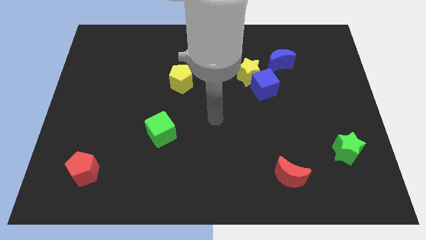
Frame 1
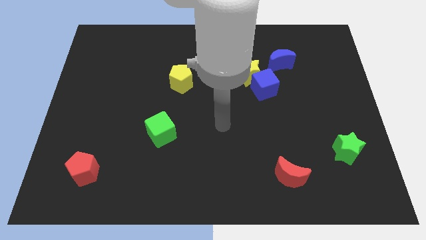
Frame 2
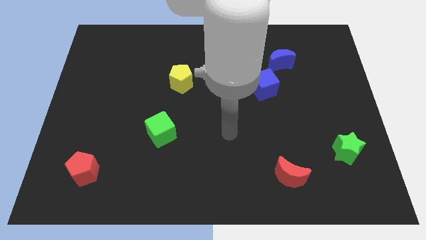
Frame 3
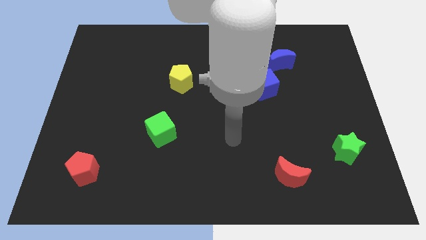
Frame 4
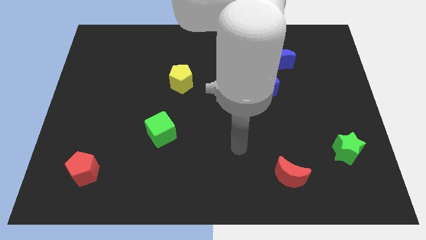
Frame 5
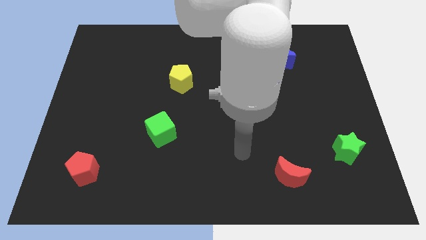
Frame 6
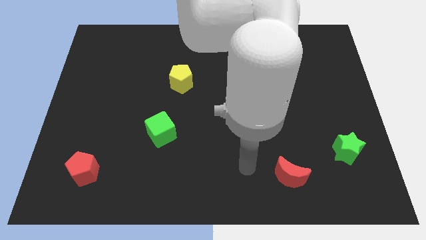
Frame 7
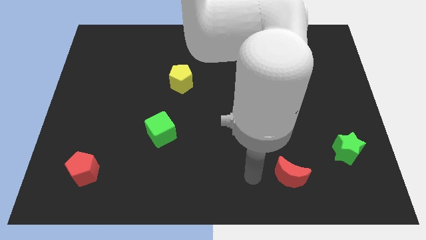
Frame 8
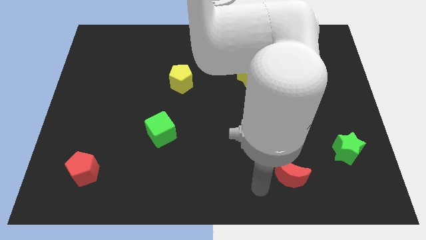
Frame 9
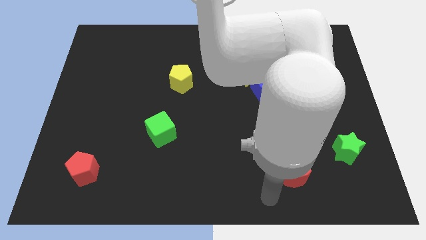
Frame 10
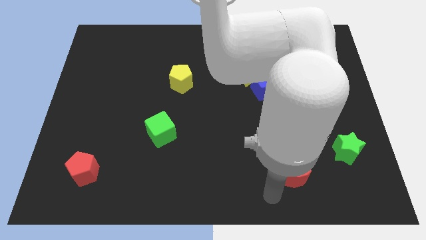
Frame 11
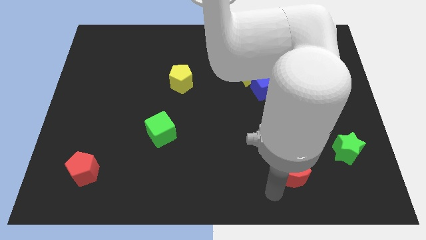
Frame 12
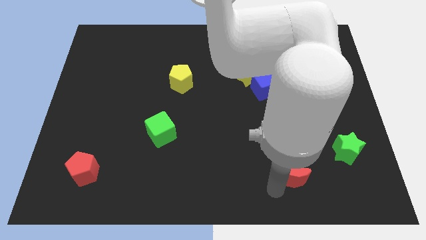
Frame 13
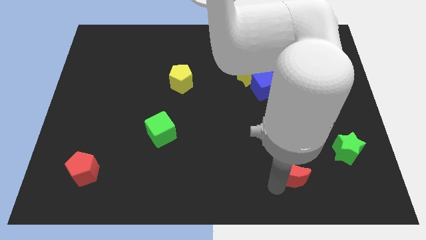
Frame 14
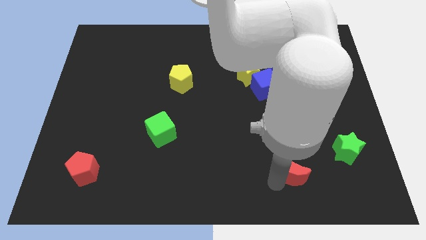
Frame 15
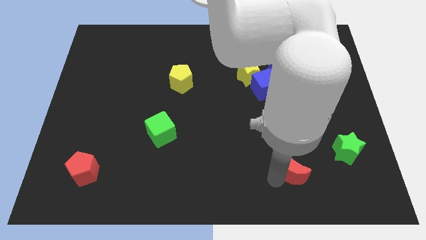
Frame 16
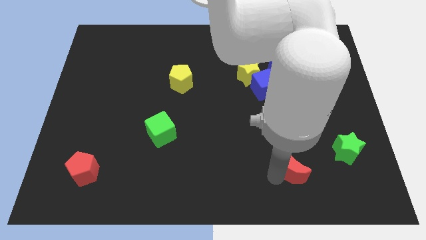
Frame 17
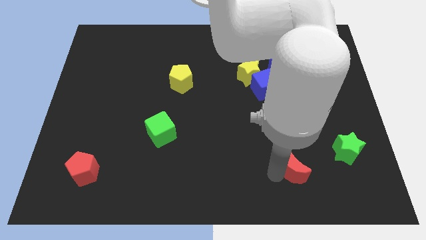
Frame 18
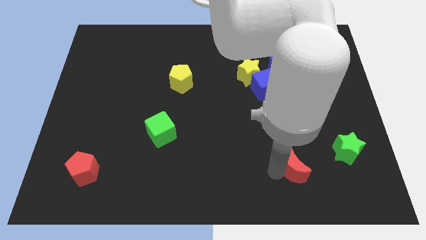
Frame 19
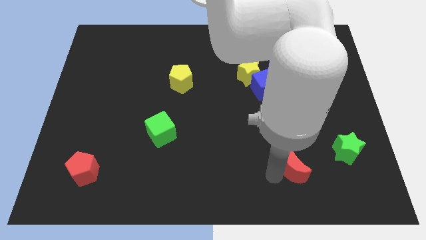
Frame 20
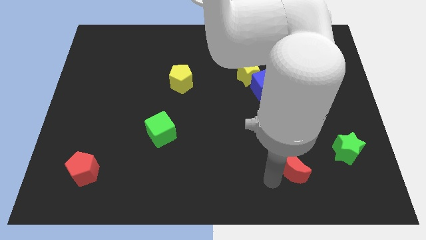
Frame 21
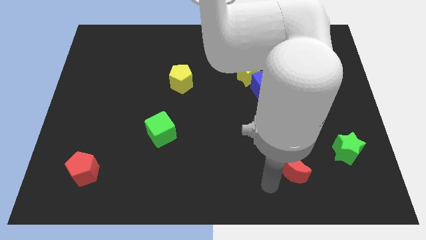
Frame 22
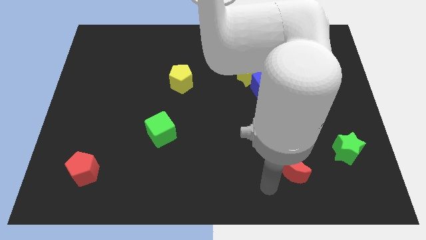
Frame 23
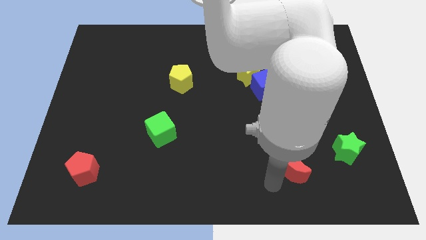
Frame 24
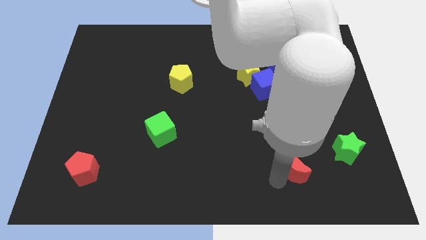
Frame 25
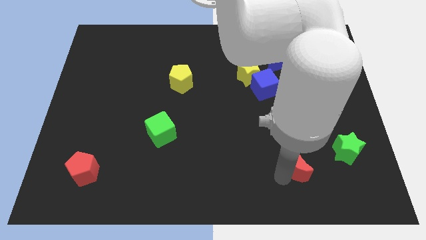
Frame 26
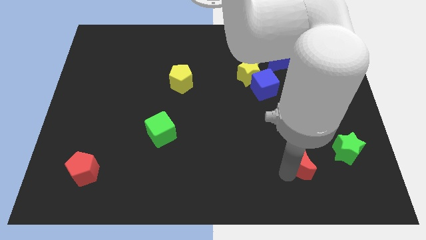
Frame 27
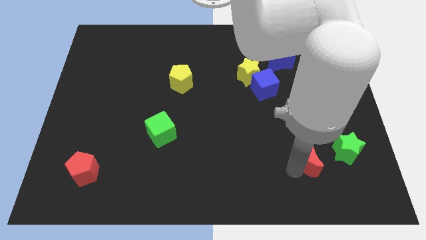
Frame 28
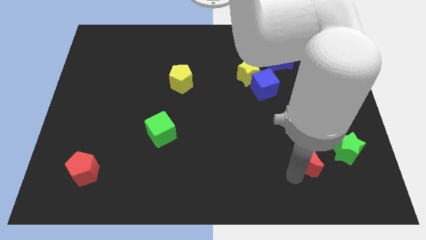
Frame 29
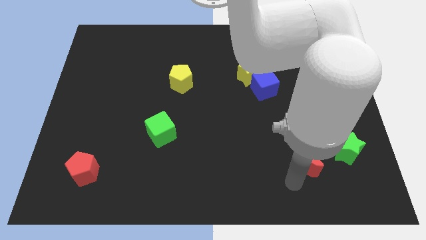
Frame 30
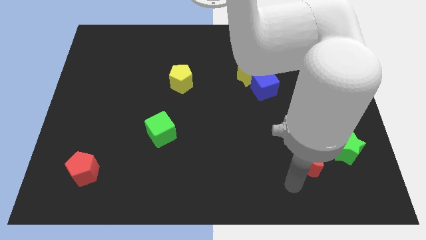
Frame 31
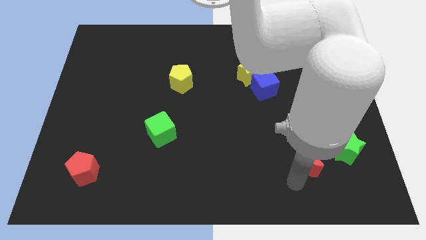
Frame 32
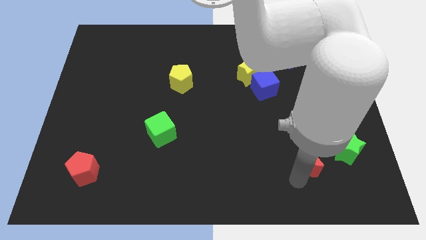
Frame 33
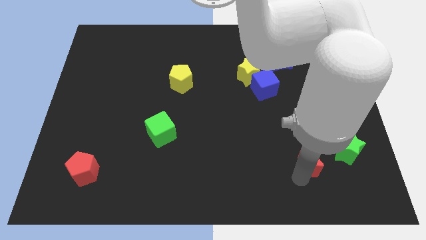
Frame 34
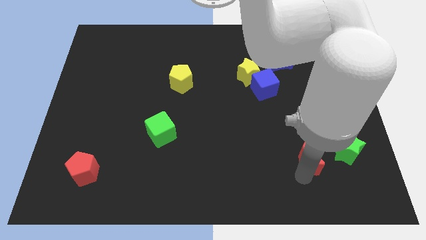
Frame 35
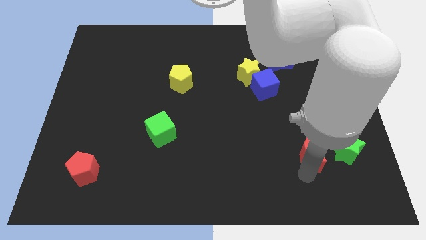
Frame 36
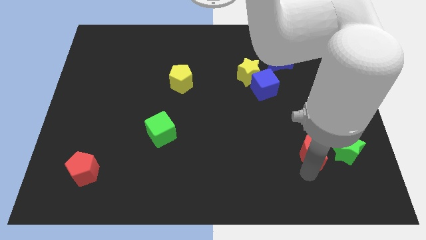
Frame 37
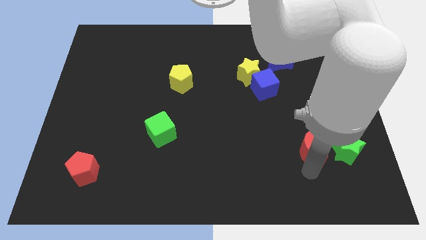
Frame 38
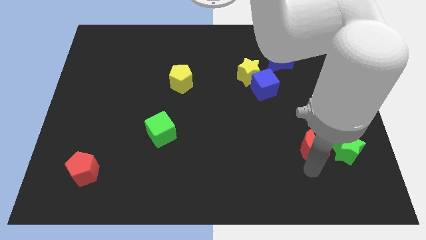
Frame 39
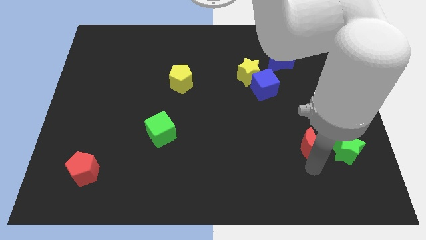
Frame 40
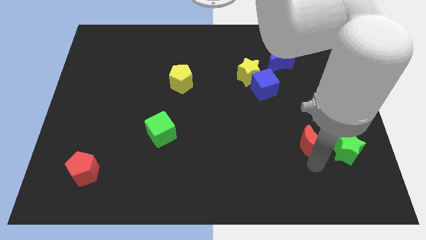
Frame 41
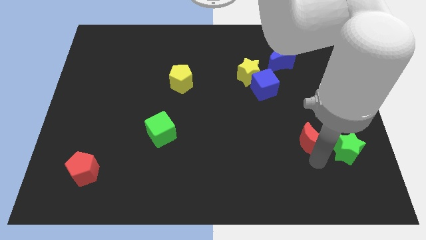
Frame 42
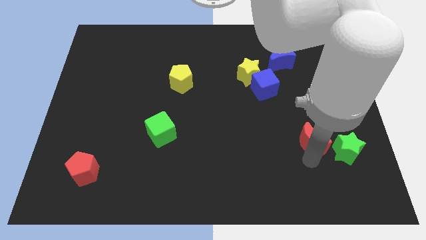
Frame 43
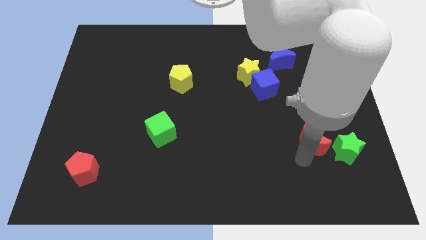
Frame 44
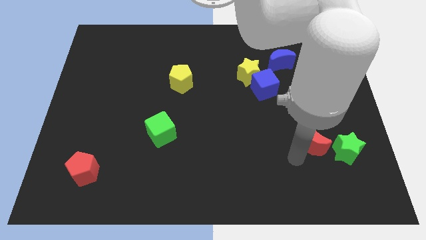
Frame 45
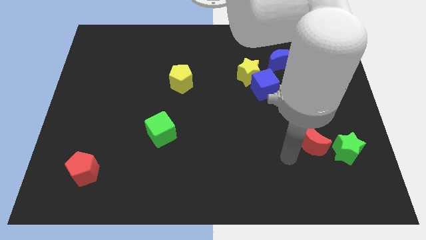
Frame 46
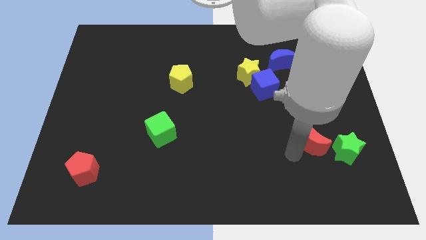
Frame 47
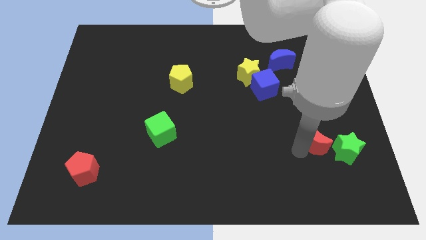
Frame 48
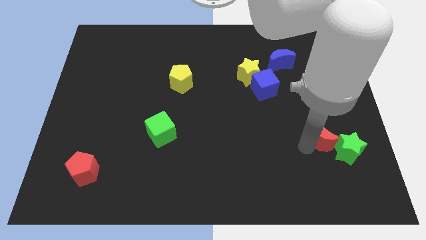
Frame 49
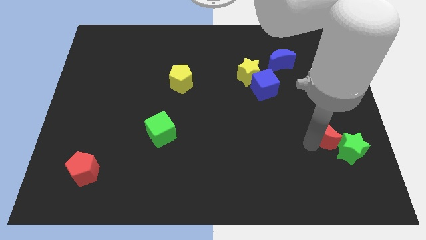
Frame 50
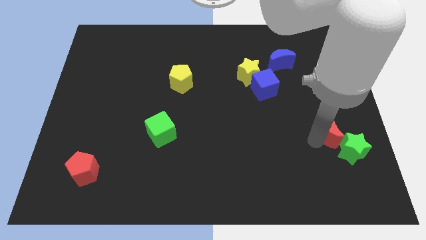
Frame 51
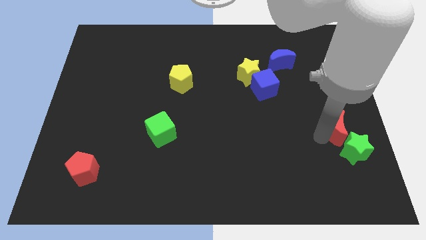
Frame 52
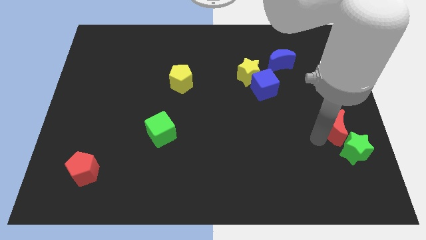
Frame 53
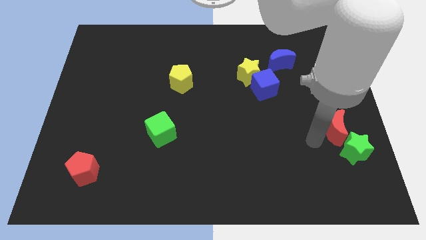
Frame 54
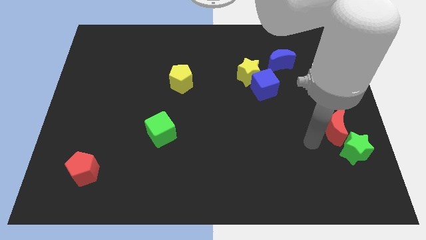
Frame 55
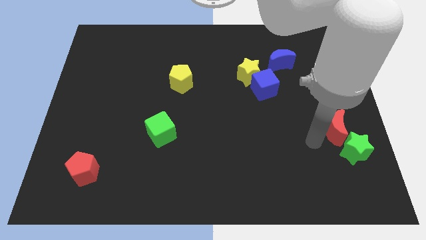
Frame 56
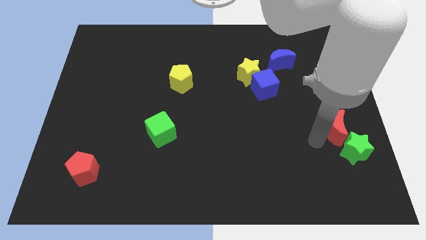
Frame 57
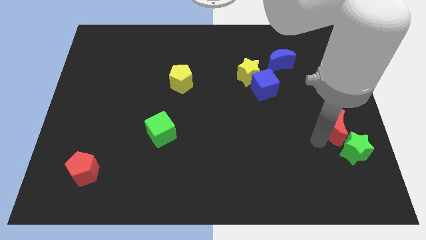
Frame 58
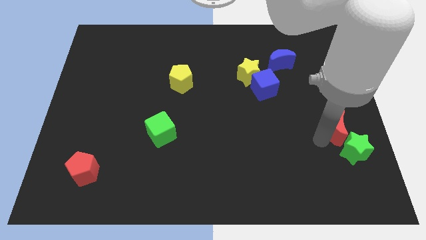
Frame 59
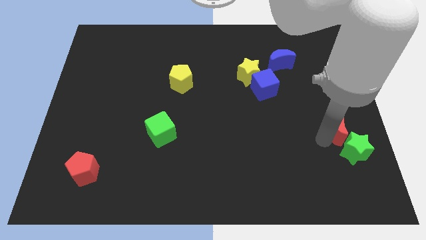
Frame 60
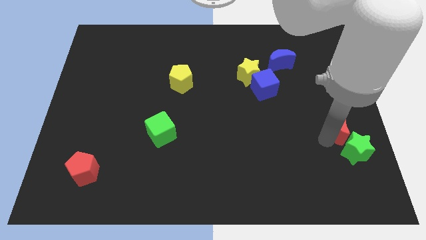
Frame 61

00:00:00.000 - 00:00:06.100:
push the red moon to the right side

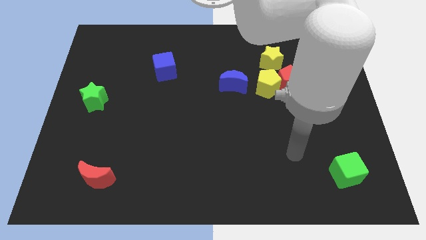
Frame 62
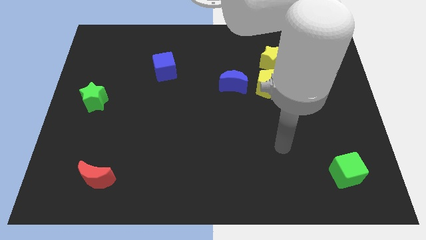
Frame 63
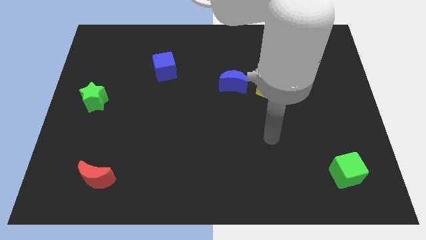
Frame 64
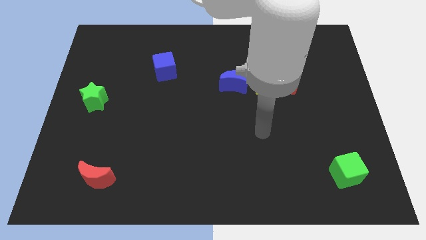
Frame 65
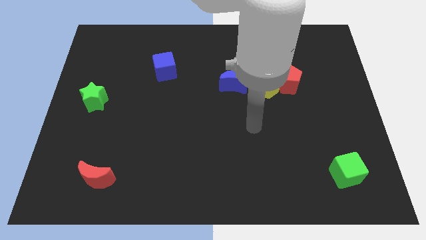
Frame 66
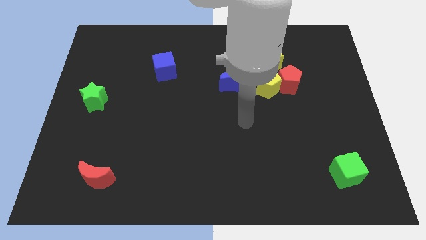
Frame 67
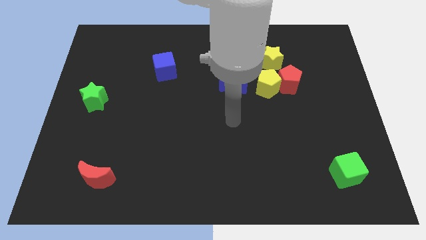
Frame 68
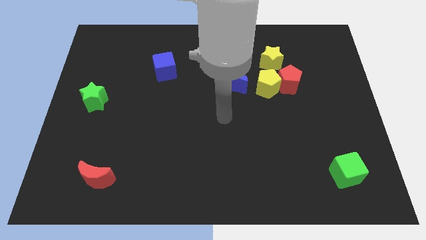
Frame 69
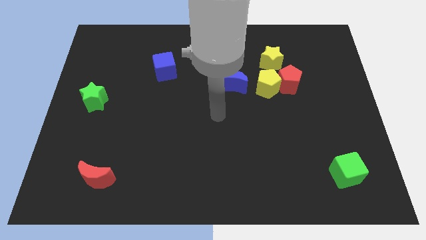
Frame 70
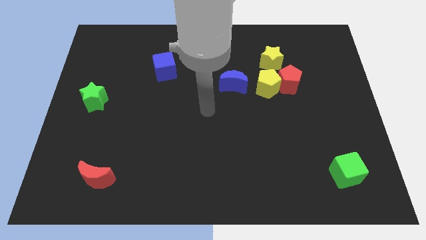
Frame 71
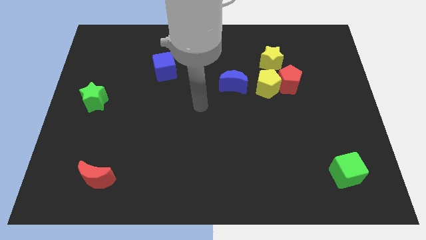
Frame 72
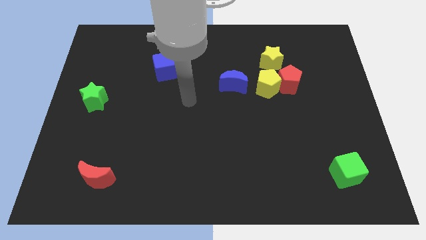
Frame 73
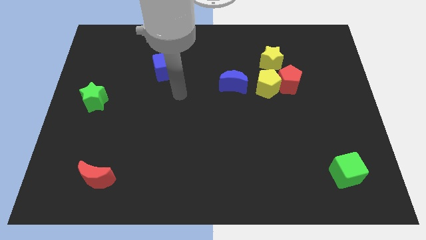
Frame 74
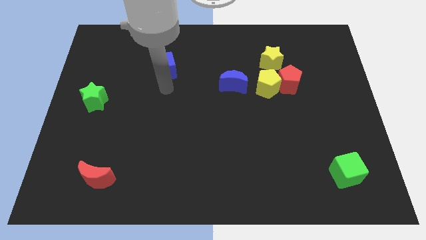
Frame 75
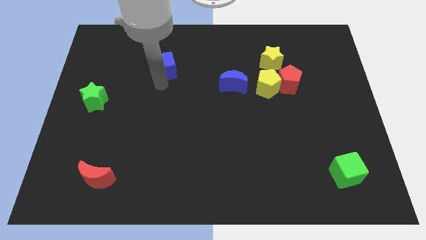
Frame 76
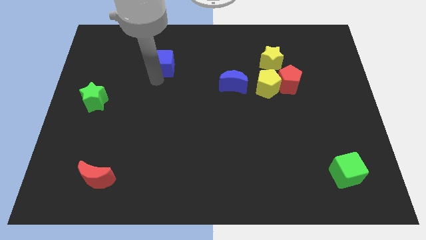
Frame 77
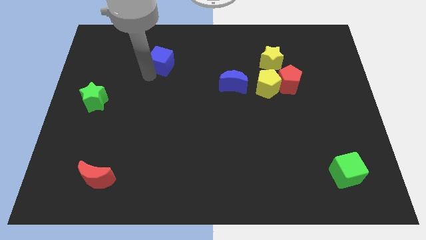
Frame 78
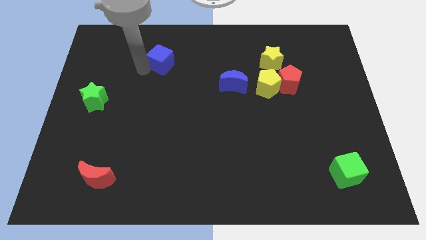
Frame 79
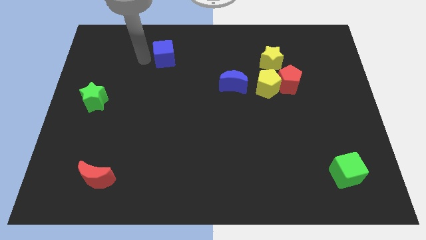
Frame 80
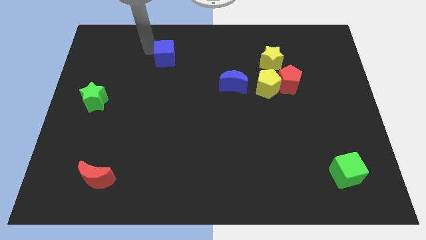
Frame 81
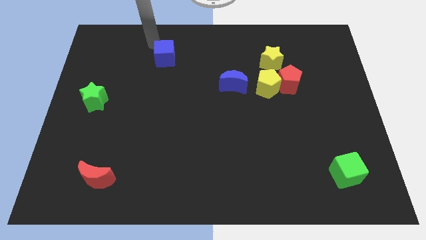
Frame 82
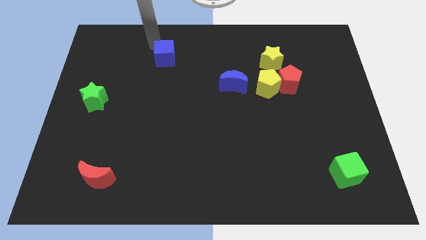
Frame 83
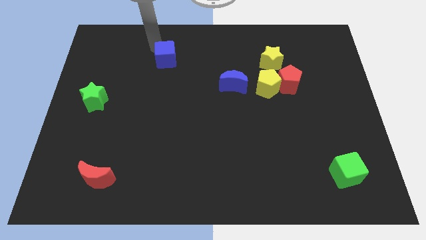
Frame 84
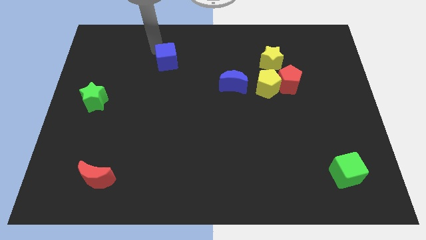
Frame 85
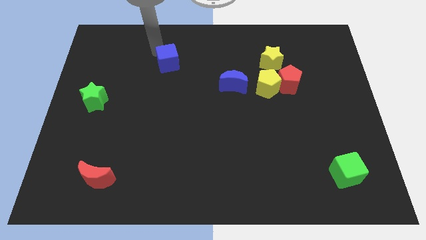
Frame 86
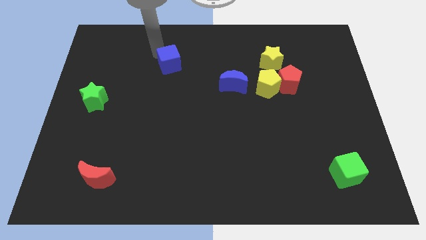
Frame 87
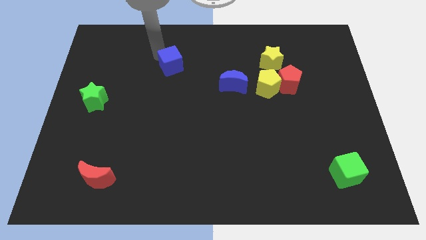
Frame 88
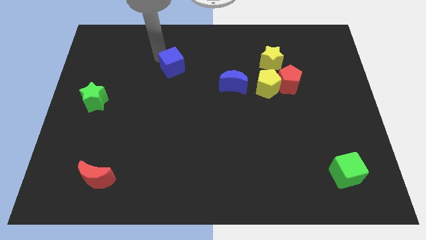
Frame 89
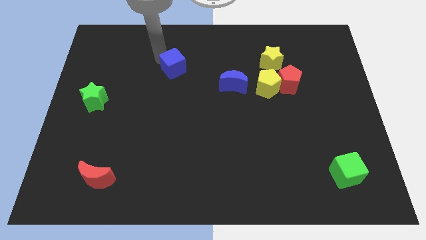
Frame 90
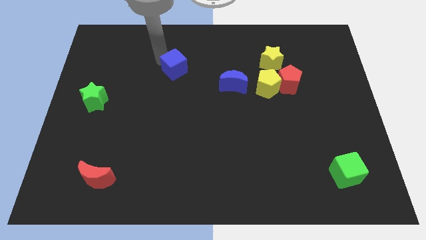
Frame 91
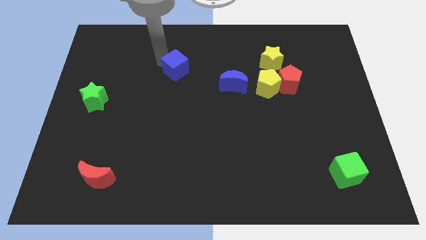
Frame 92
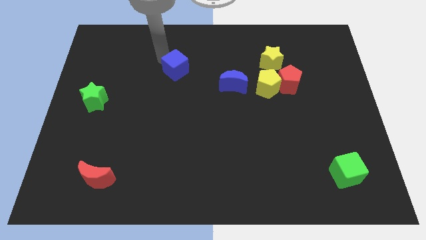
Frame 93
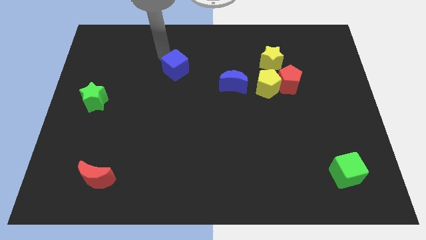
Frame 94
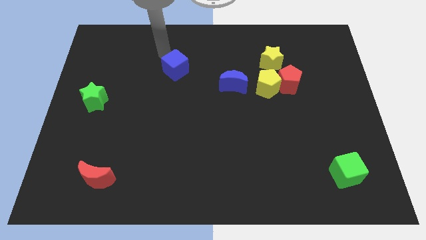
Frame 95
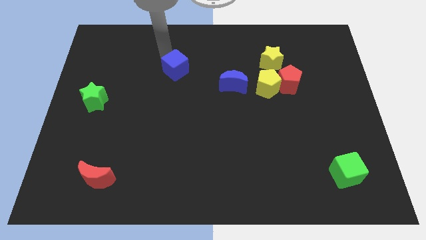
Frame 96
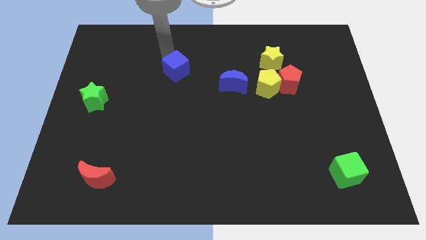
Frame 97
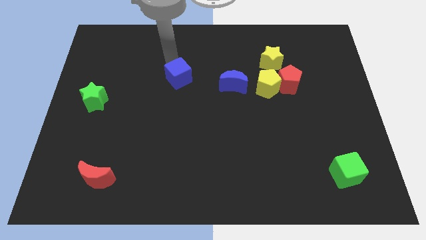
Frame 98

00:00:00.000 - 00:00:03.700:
push the blue cube to the center
